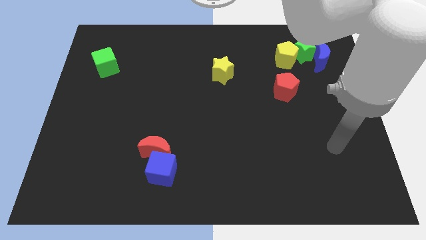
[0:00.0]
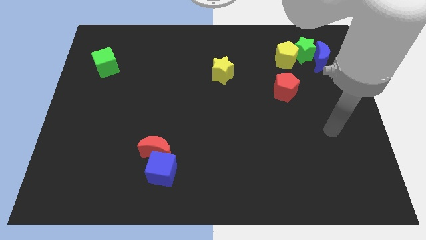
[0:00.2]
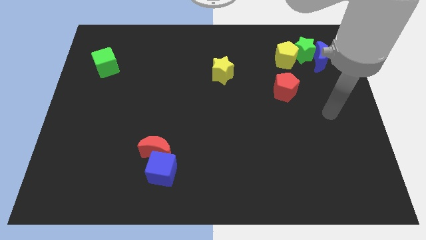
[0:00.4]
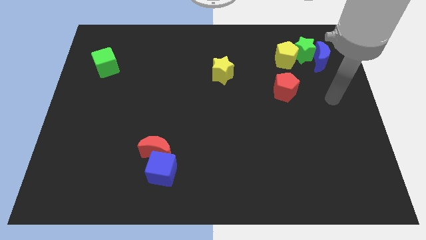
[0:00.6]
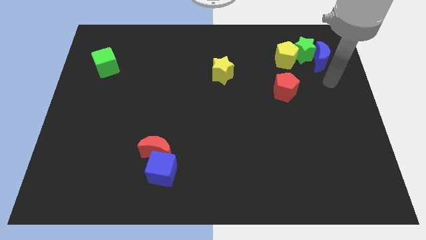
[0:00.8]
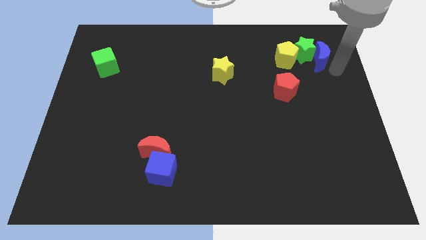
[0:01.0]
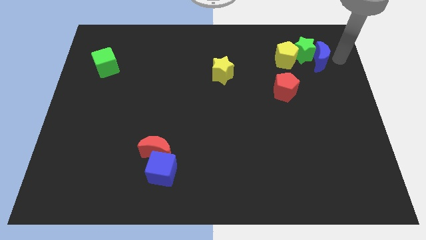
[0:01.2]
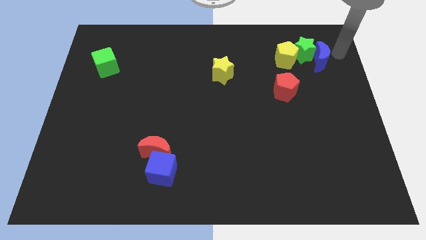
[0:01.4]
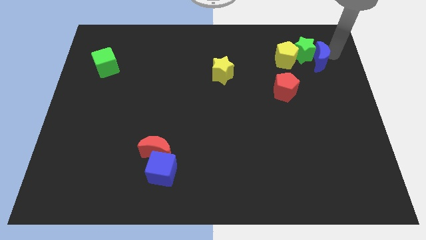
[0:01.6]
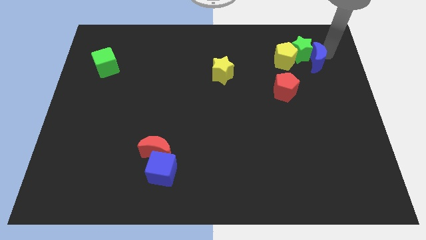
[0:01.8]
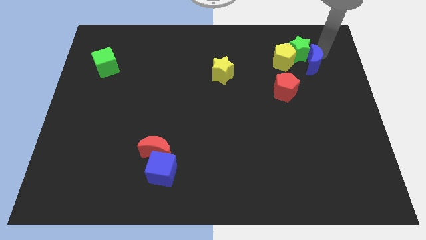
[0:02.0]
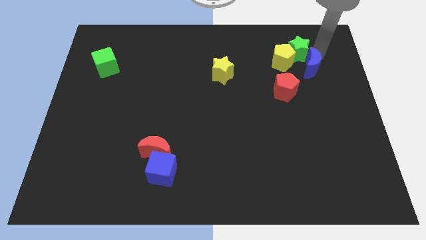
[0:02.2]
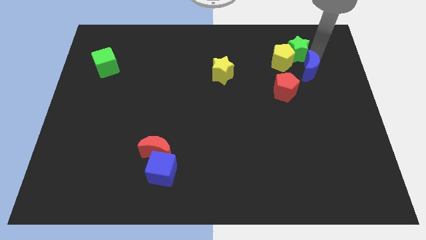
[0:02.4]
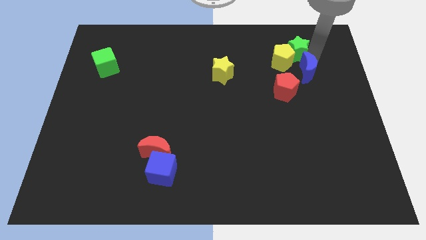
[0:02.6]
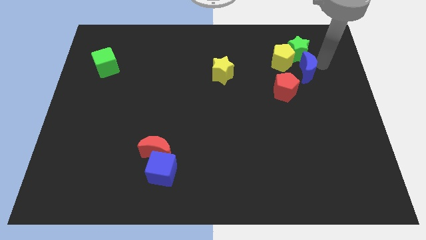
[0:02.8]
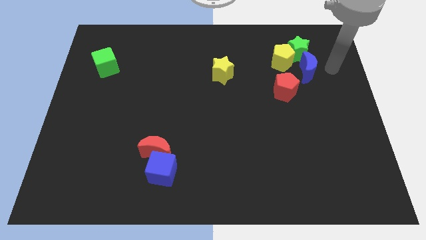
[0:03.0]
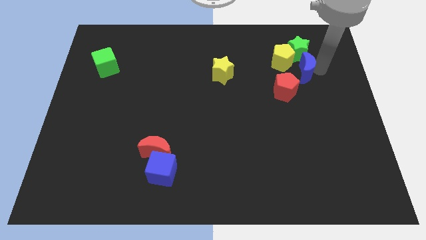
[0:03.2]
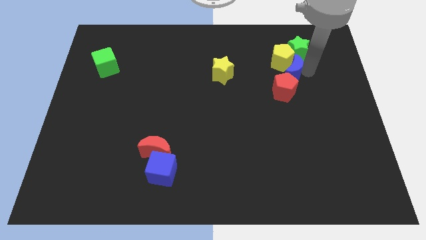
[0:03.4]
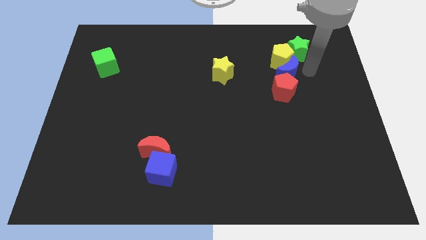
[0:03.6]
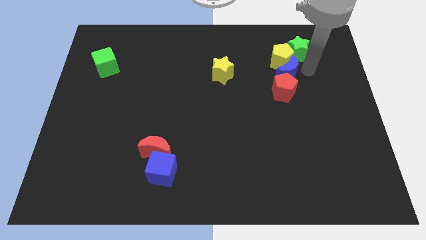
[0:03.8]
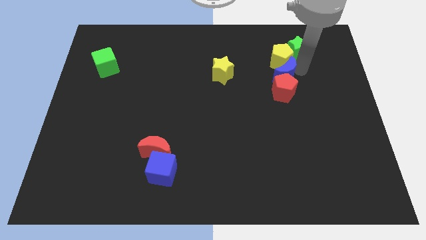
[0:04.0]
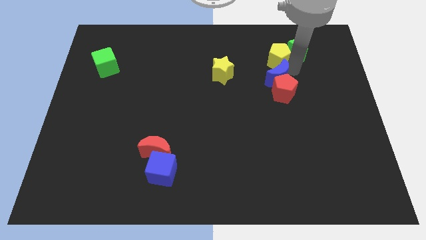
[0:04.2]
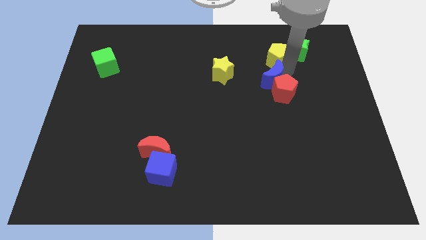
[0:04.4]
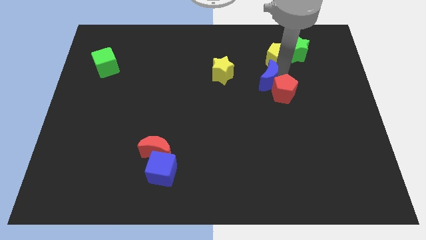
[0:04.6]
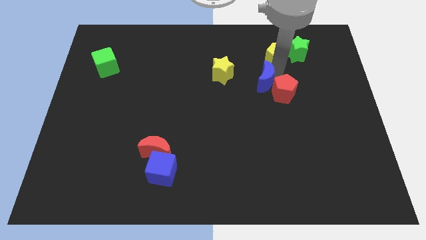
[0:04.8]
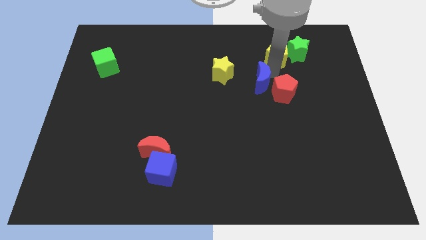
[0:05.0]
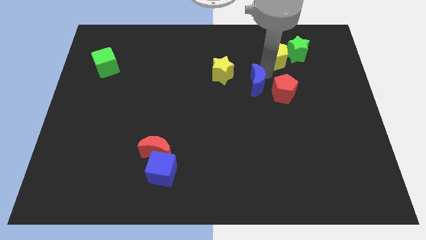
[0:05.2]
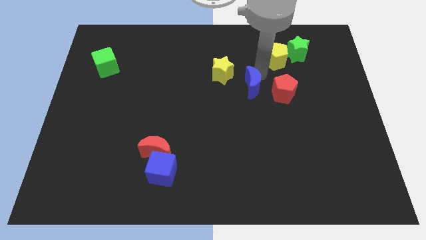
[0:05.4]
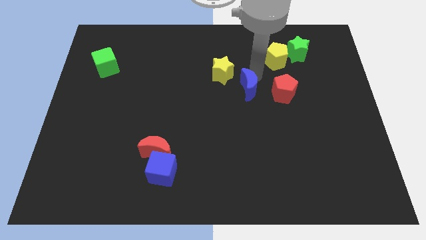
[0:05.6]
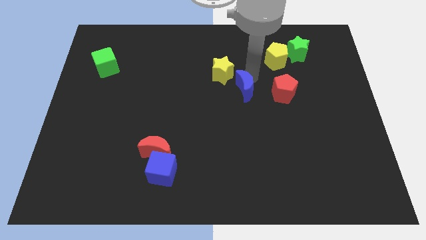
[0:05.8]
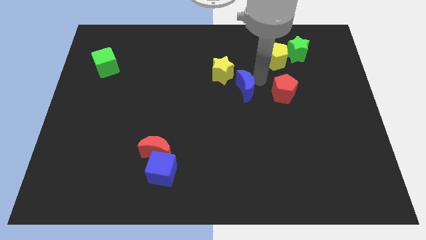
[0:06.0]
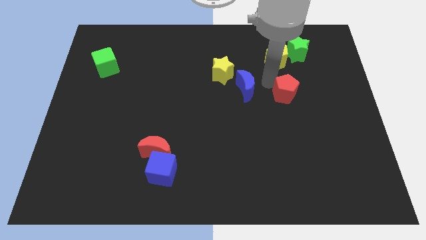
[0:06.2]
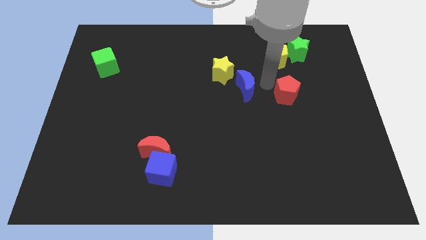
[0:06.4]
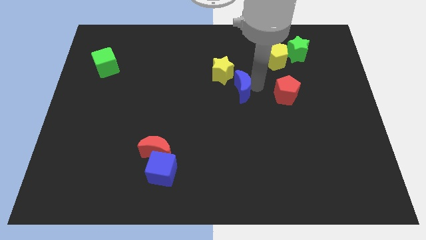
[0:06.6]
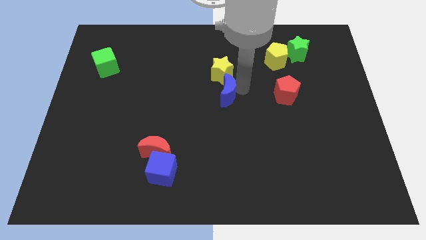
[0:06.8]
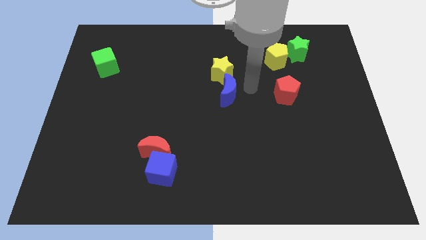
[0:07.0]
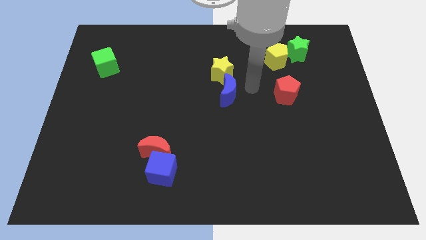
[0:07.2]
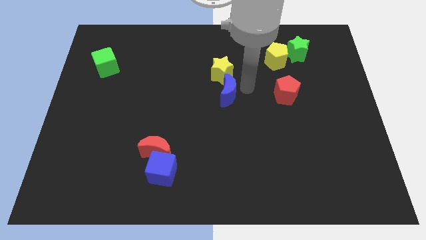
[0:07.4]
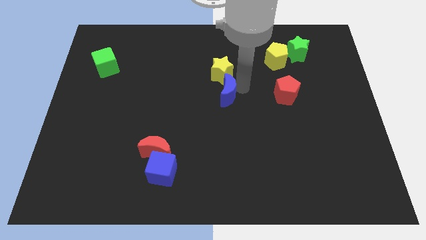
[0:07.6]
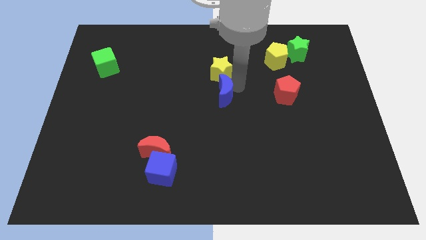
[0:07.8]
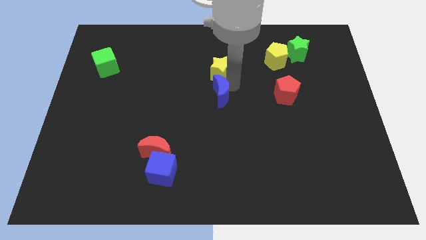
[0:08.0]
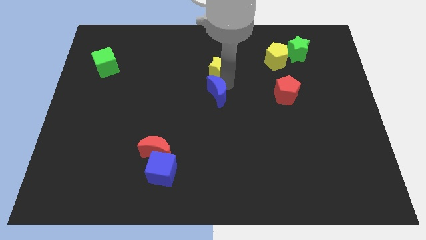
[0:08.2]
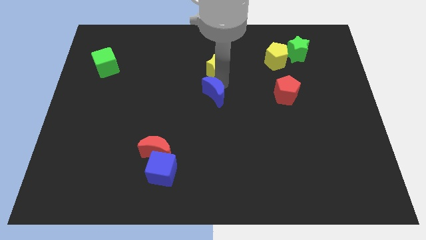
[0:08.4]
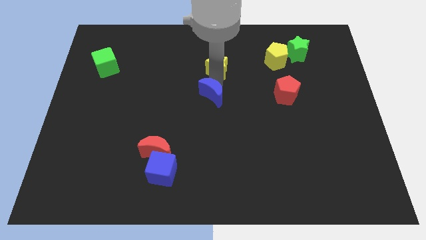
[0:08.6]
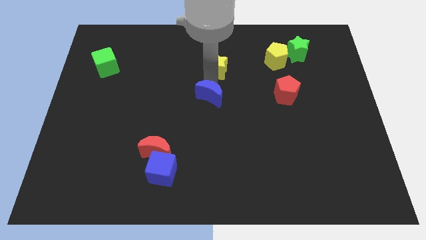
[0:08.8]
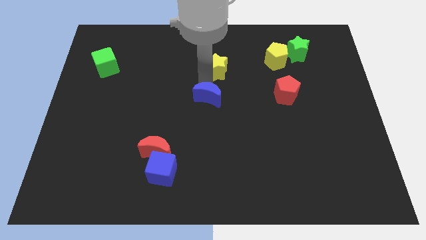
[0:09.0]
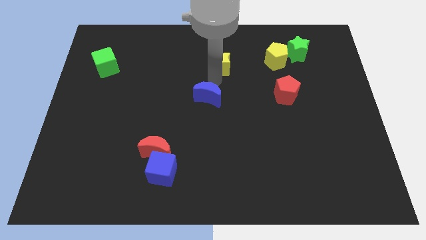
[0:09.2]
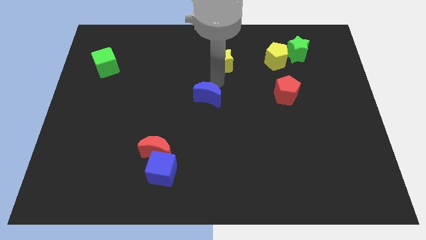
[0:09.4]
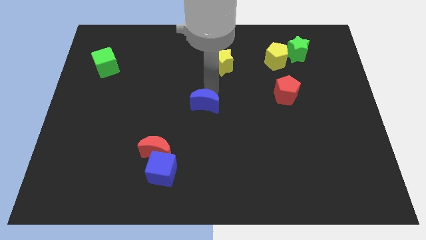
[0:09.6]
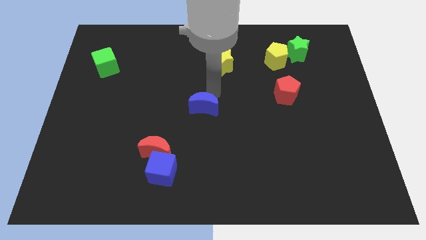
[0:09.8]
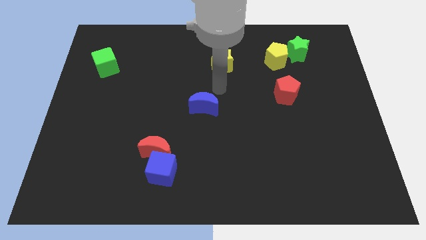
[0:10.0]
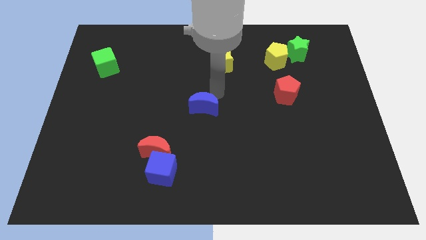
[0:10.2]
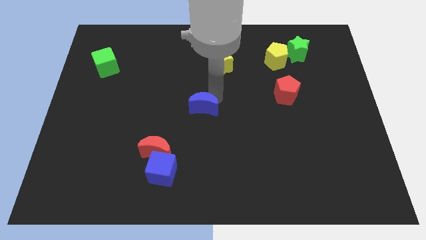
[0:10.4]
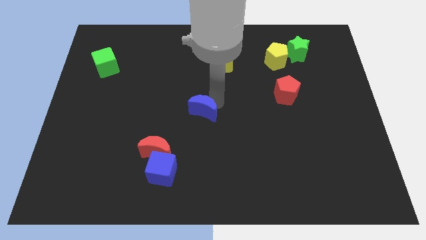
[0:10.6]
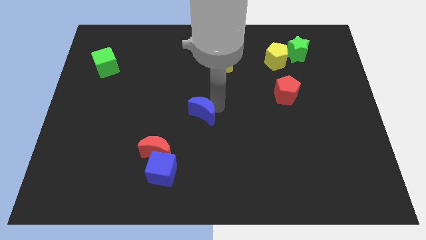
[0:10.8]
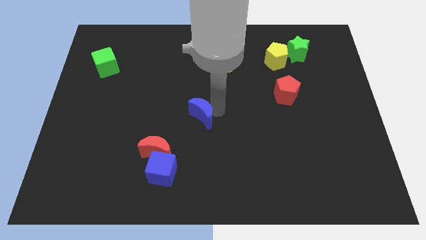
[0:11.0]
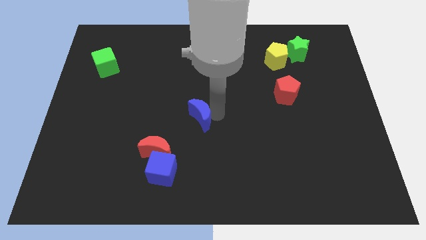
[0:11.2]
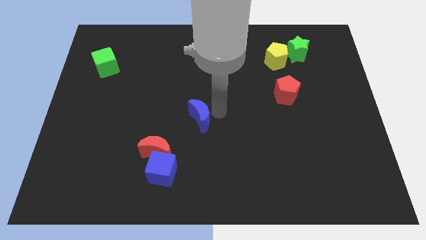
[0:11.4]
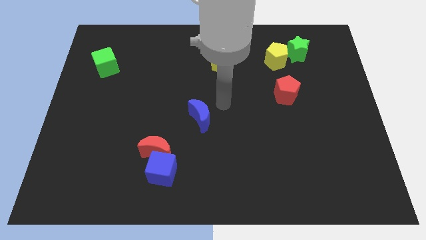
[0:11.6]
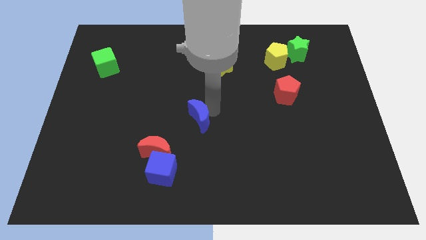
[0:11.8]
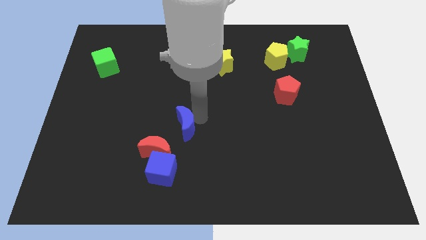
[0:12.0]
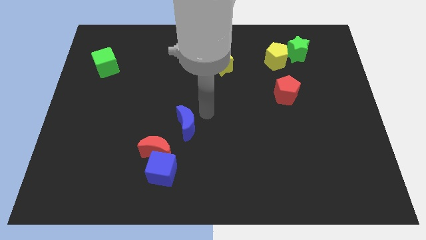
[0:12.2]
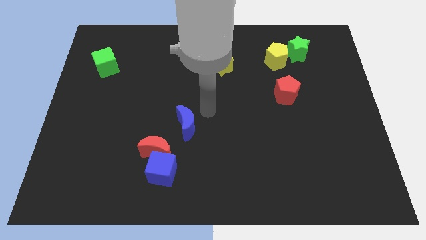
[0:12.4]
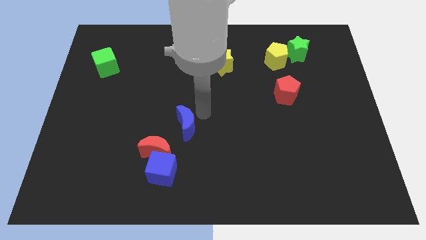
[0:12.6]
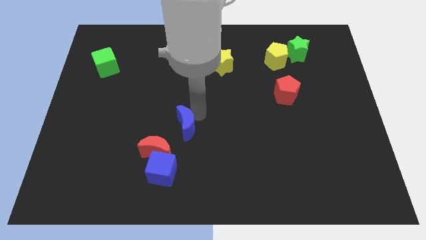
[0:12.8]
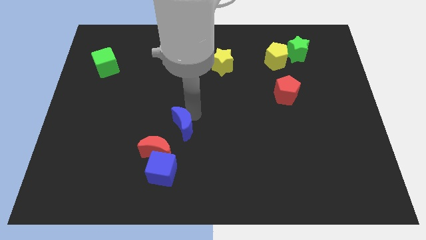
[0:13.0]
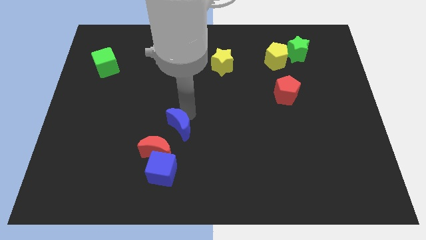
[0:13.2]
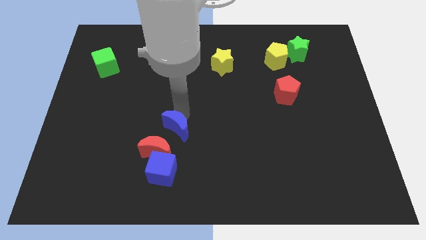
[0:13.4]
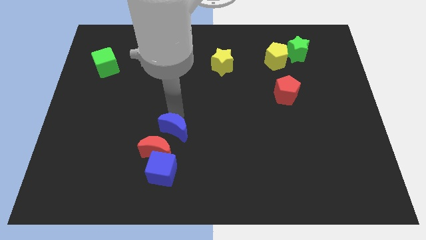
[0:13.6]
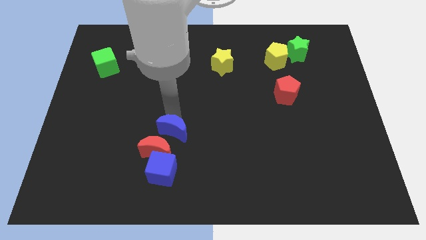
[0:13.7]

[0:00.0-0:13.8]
put the blue moon close to the red moon
